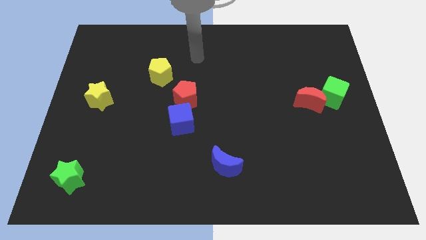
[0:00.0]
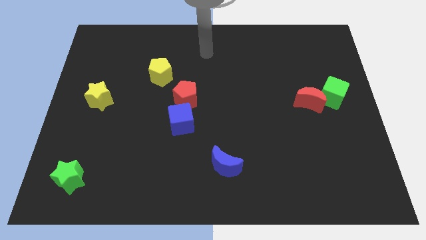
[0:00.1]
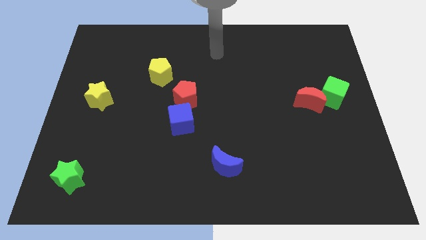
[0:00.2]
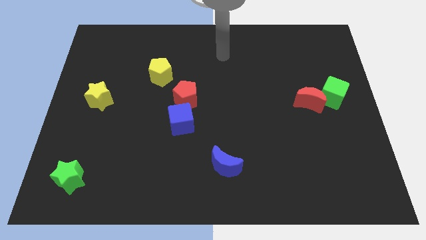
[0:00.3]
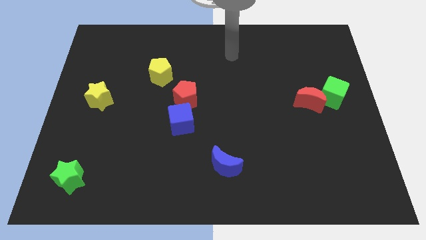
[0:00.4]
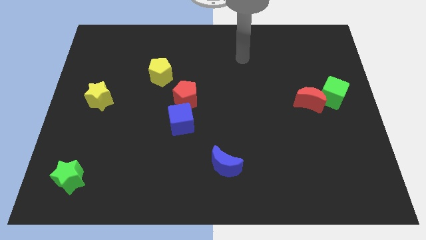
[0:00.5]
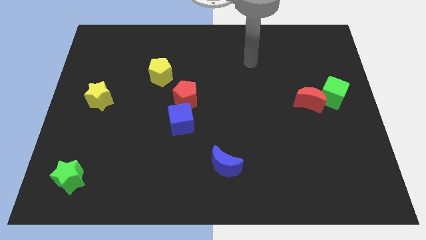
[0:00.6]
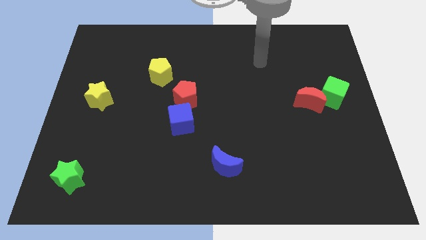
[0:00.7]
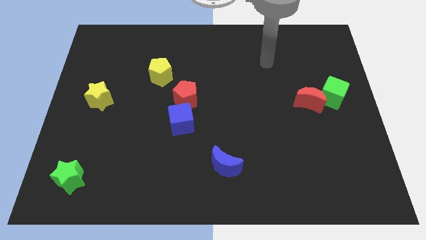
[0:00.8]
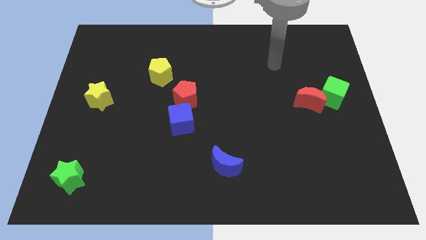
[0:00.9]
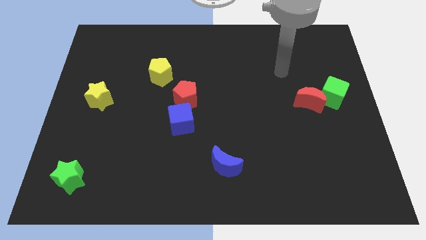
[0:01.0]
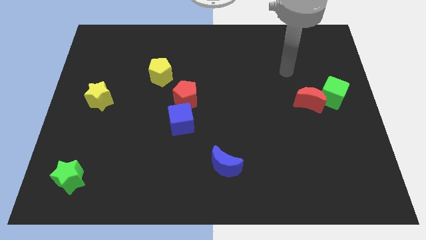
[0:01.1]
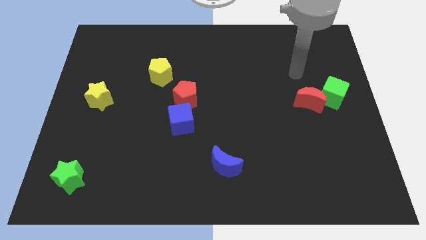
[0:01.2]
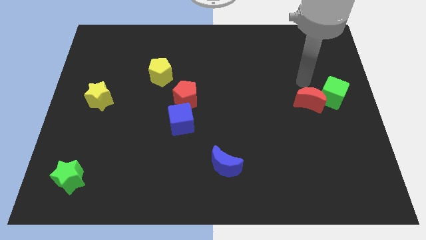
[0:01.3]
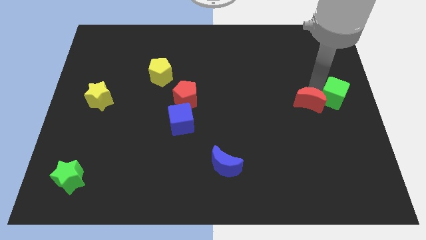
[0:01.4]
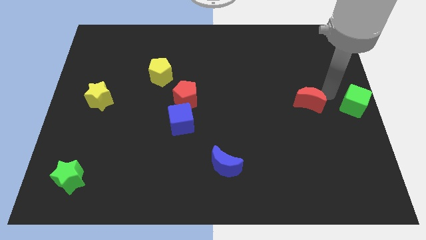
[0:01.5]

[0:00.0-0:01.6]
pull the red moon apart from the green cube

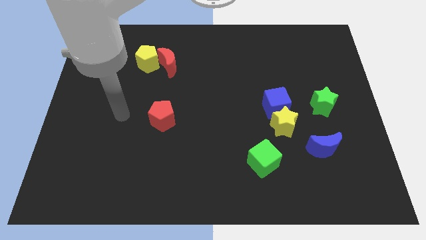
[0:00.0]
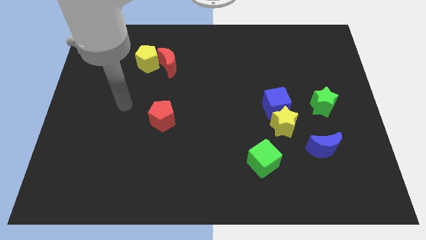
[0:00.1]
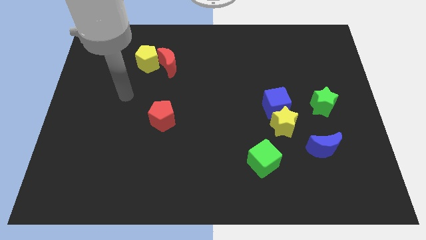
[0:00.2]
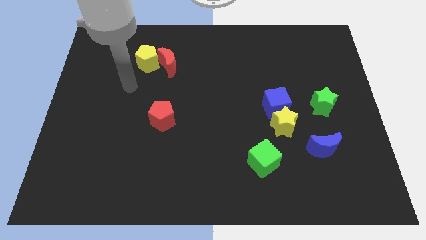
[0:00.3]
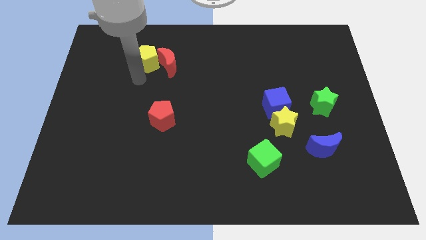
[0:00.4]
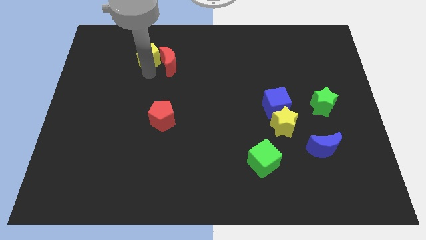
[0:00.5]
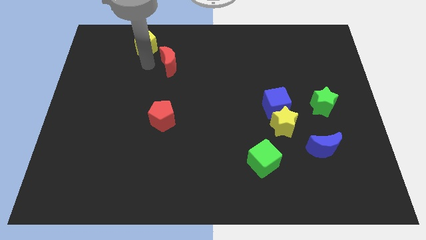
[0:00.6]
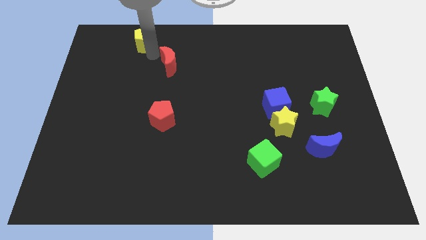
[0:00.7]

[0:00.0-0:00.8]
pull the red moon apart from the yellow pentagon

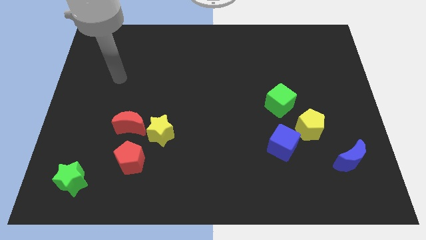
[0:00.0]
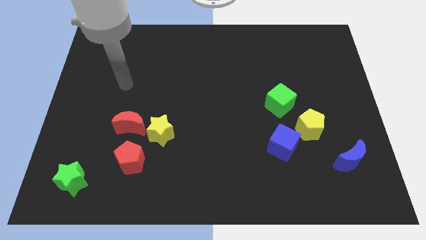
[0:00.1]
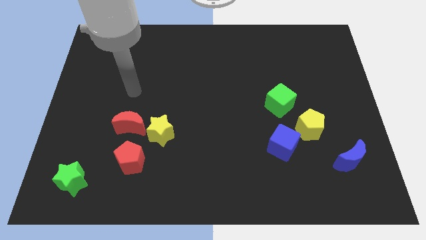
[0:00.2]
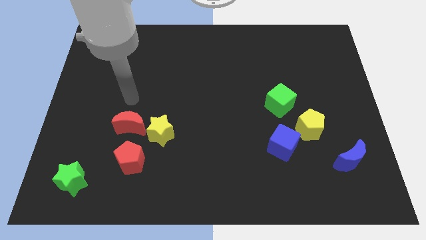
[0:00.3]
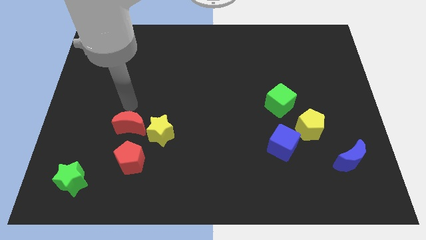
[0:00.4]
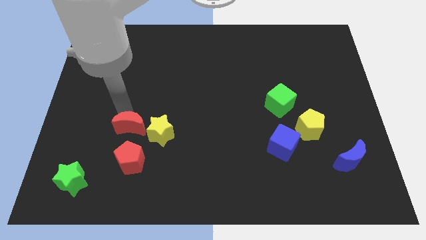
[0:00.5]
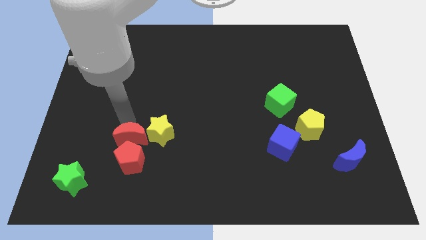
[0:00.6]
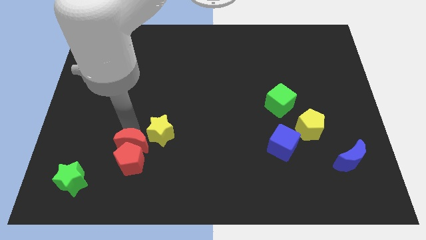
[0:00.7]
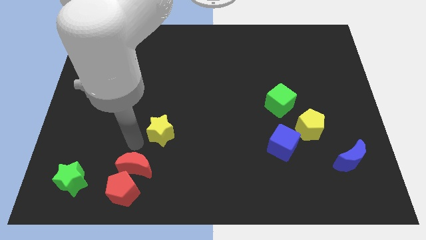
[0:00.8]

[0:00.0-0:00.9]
pull the yellow star apart from the red moon and red pentagon

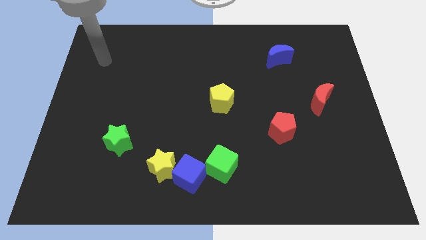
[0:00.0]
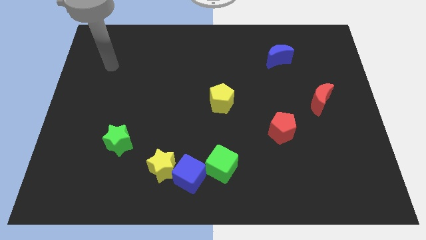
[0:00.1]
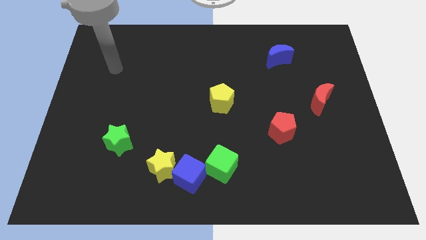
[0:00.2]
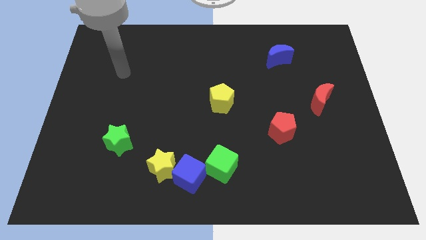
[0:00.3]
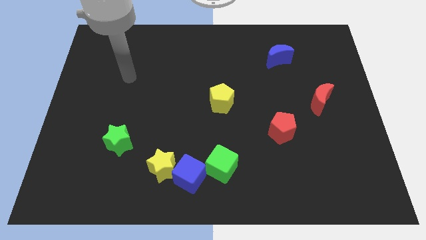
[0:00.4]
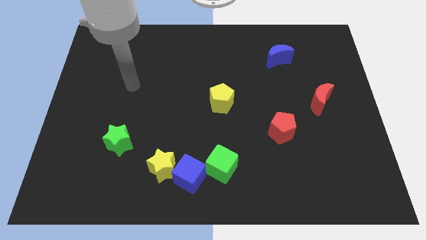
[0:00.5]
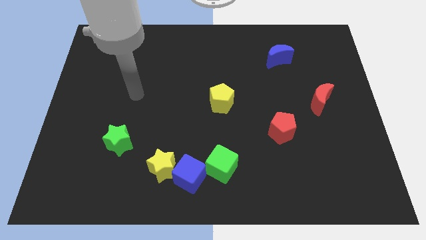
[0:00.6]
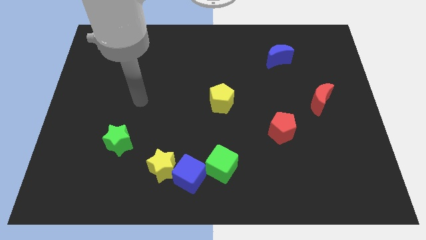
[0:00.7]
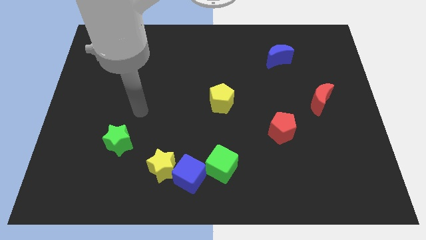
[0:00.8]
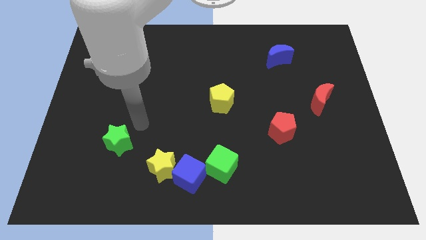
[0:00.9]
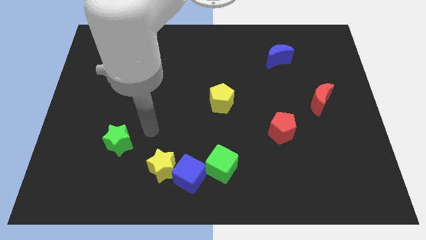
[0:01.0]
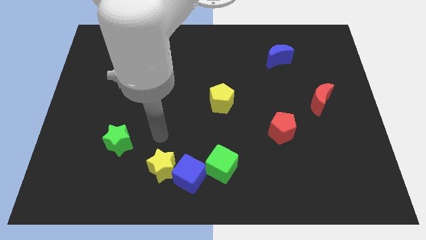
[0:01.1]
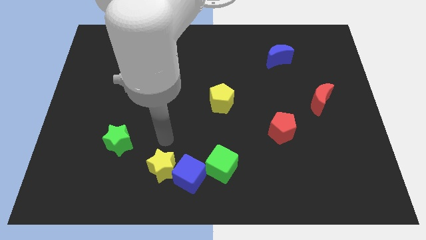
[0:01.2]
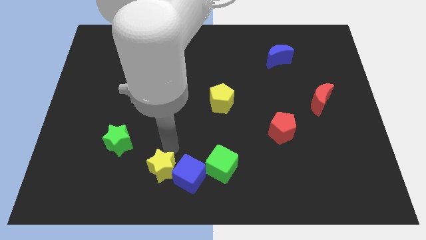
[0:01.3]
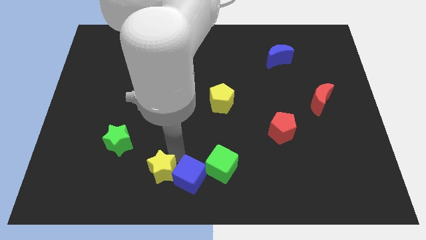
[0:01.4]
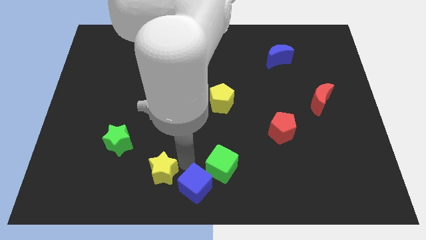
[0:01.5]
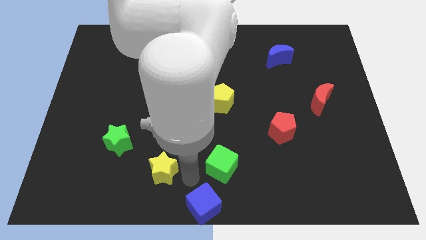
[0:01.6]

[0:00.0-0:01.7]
pull the yellow star apart from the blue cube

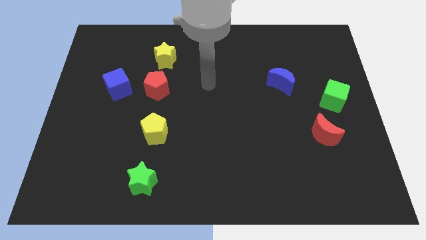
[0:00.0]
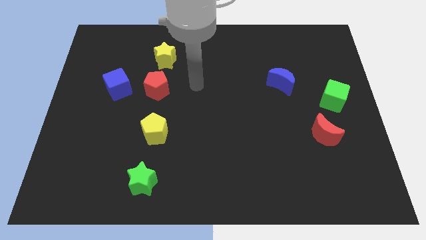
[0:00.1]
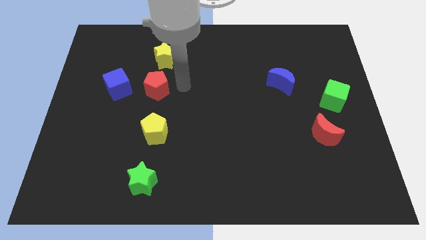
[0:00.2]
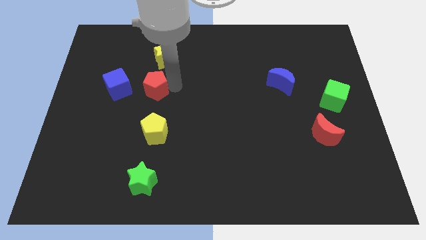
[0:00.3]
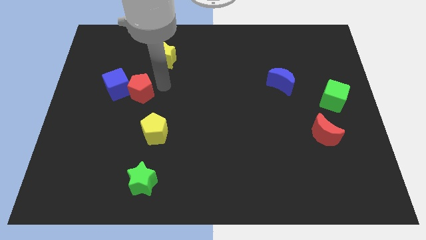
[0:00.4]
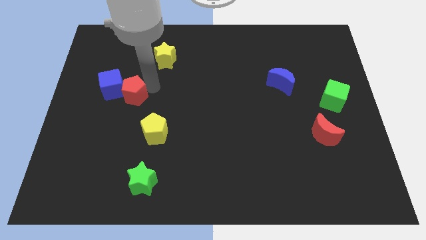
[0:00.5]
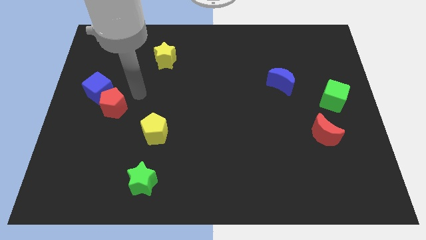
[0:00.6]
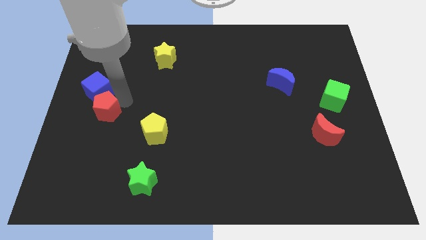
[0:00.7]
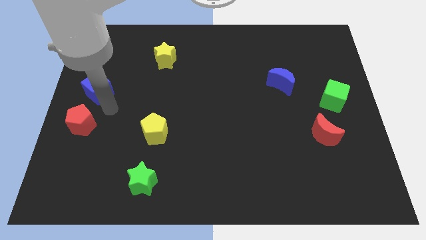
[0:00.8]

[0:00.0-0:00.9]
pull the blue cube apart from the red pentagon

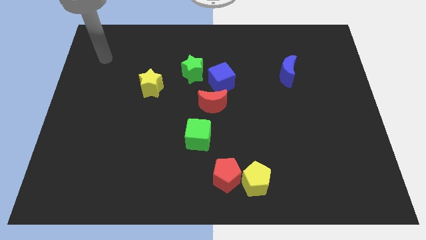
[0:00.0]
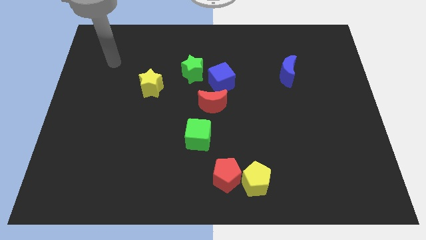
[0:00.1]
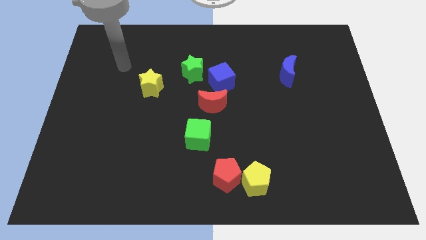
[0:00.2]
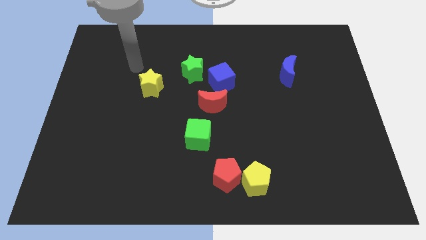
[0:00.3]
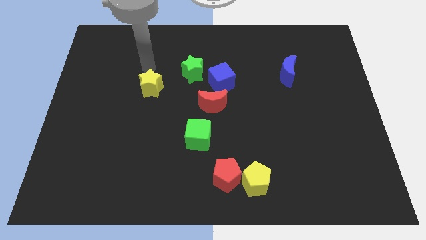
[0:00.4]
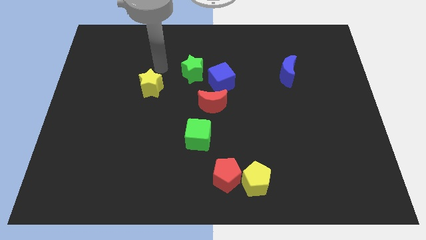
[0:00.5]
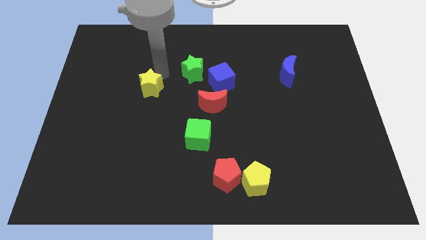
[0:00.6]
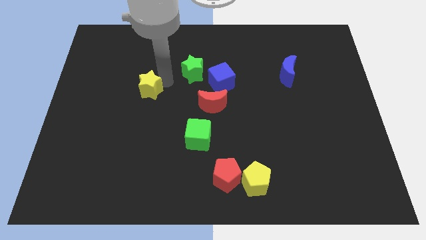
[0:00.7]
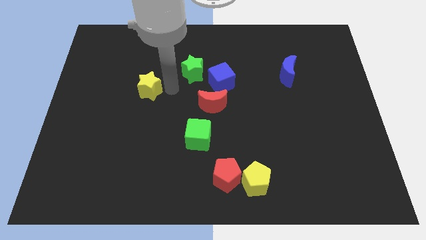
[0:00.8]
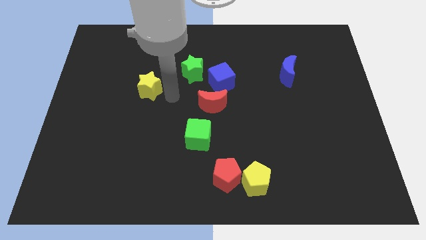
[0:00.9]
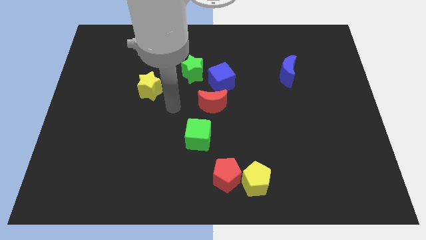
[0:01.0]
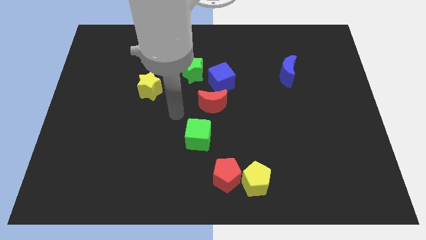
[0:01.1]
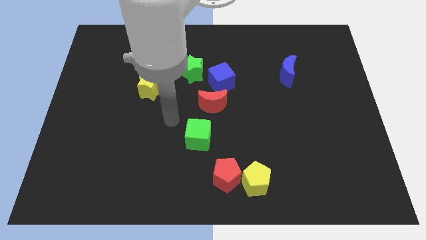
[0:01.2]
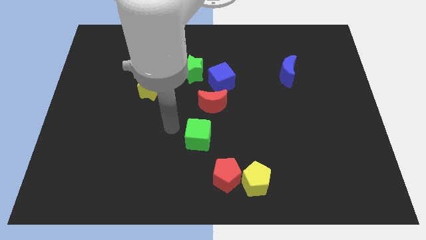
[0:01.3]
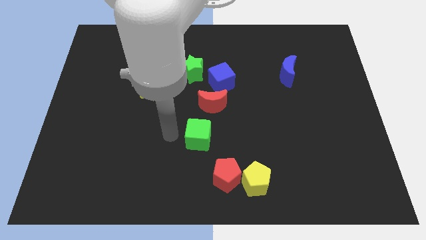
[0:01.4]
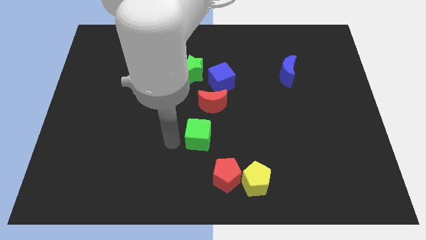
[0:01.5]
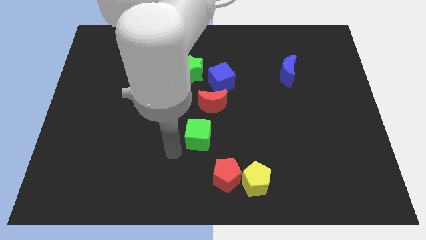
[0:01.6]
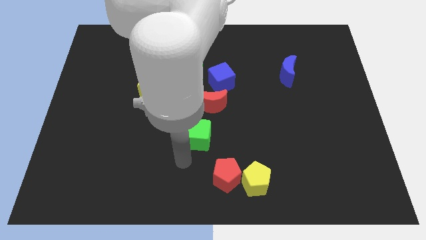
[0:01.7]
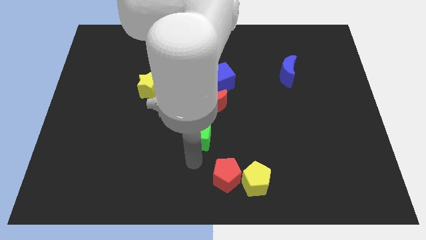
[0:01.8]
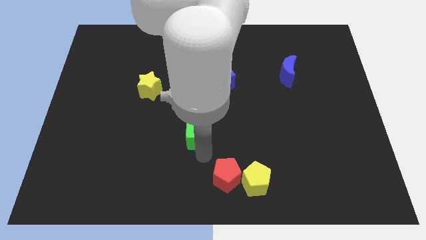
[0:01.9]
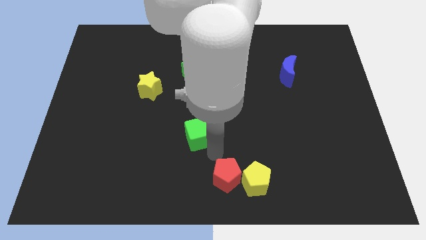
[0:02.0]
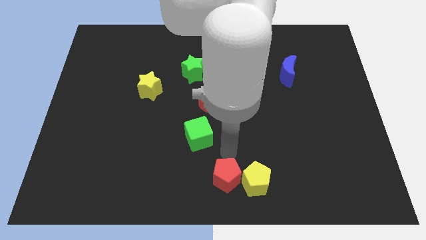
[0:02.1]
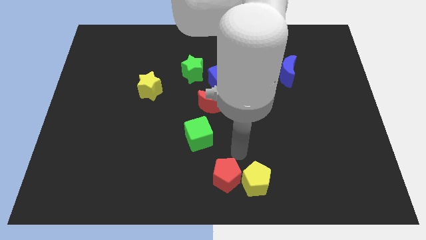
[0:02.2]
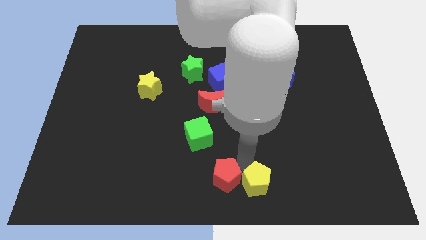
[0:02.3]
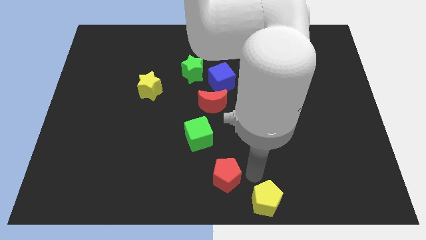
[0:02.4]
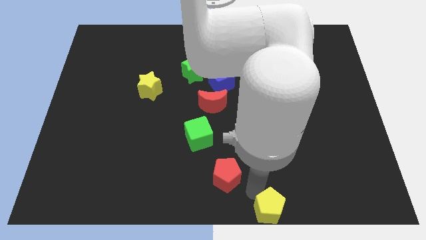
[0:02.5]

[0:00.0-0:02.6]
separate the red pentagon from the yellow pentagon

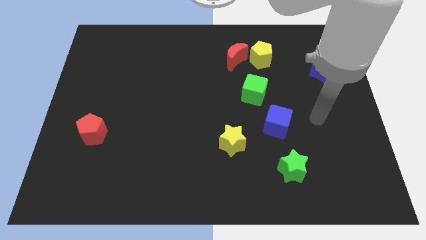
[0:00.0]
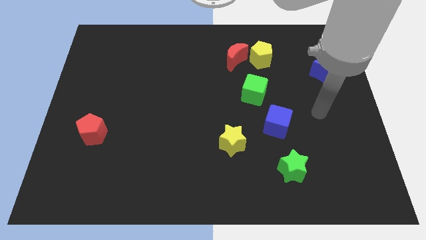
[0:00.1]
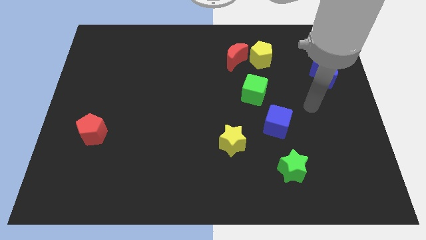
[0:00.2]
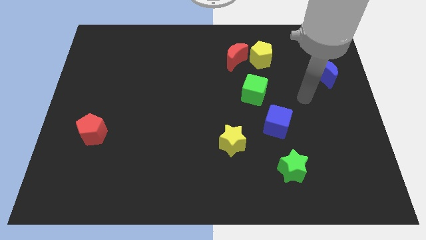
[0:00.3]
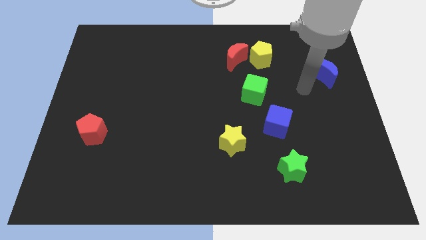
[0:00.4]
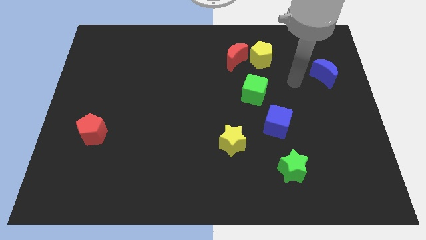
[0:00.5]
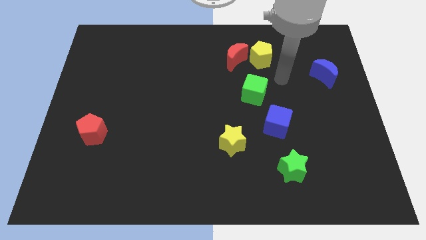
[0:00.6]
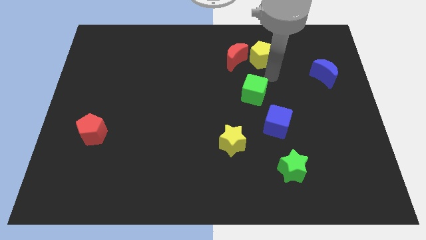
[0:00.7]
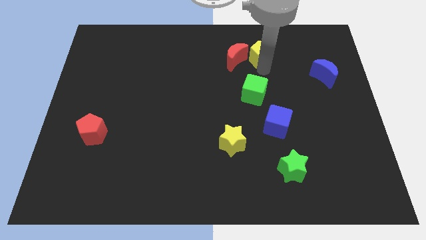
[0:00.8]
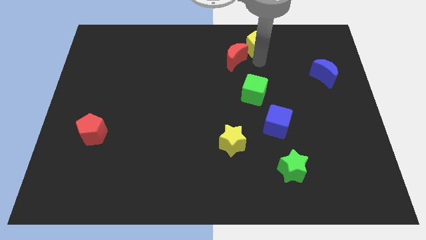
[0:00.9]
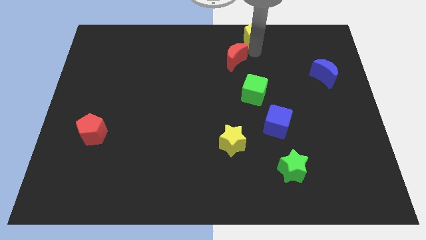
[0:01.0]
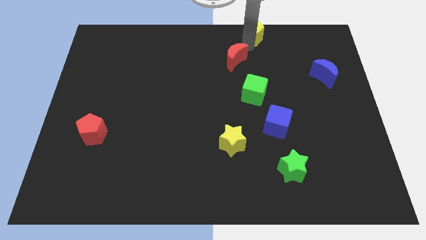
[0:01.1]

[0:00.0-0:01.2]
move the red moon away from the yellow pentagon
